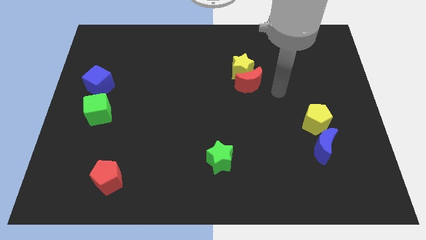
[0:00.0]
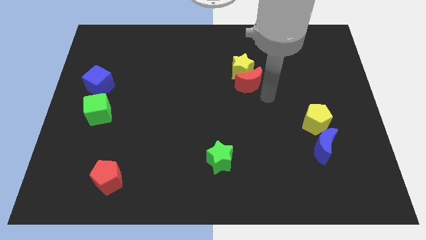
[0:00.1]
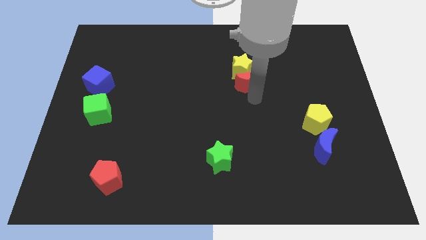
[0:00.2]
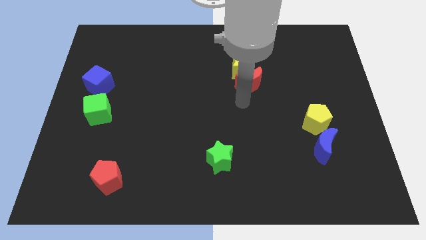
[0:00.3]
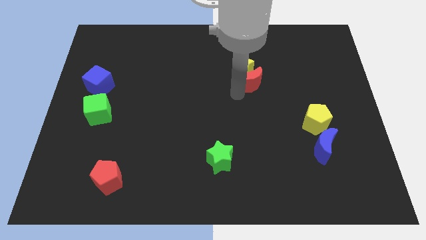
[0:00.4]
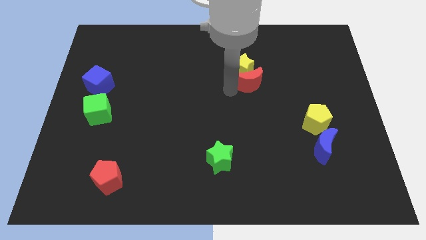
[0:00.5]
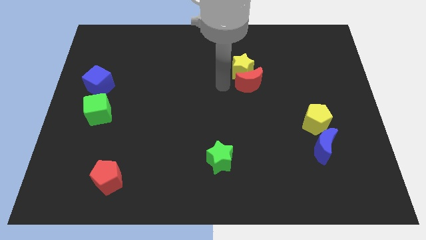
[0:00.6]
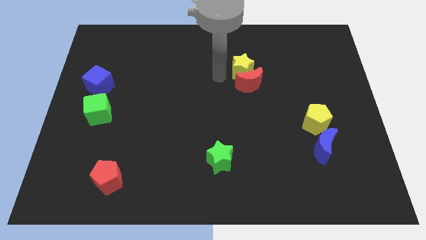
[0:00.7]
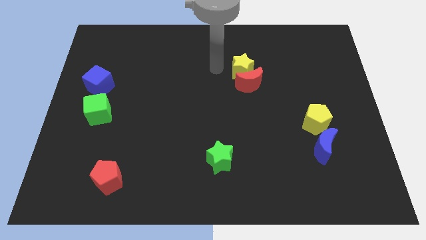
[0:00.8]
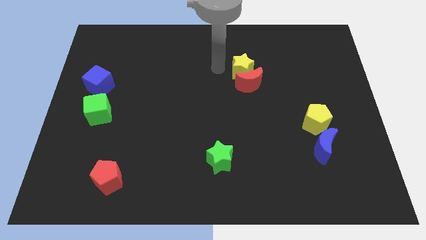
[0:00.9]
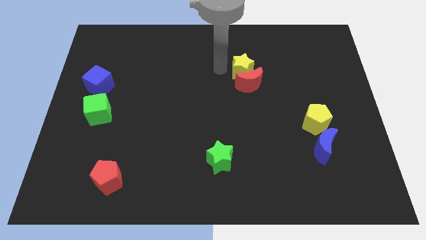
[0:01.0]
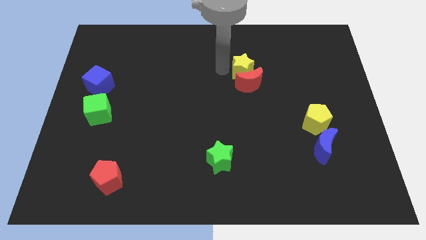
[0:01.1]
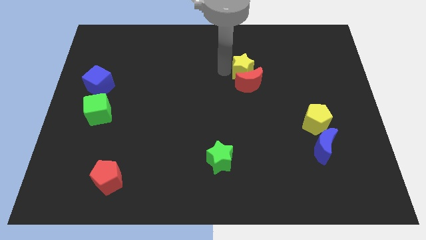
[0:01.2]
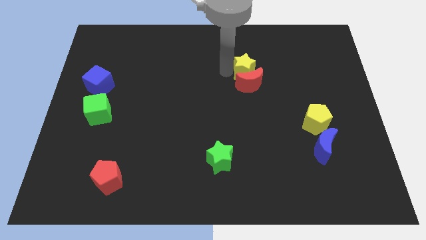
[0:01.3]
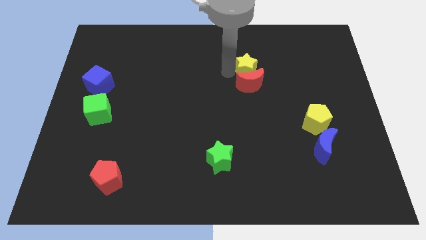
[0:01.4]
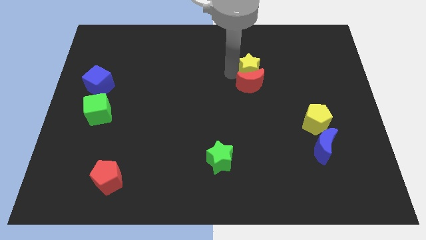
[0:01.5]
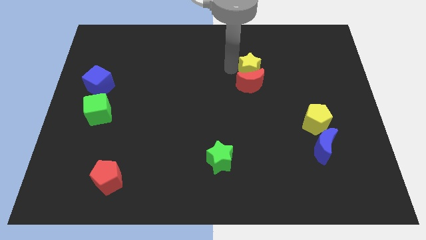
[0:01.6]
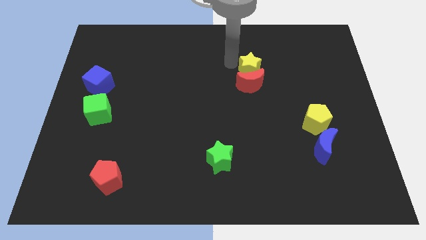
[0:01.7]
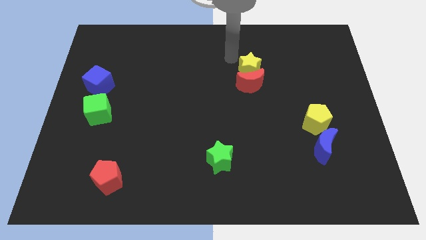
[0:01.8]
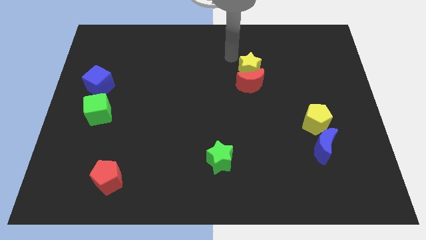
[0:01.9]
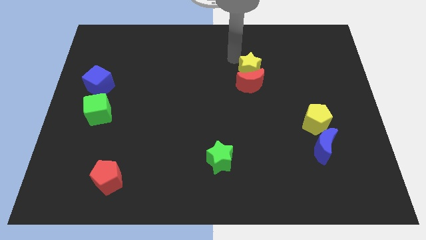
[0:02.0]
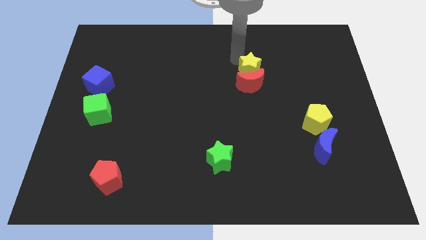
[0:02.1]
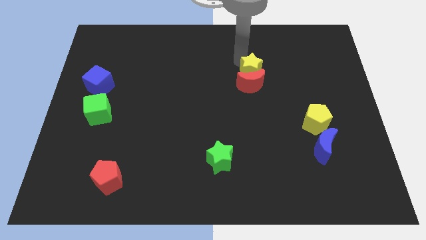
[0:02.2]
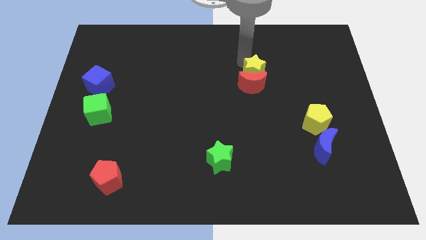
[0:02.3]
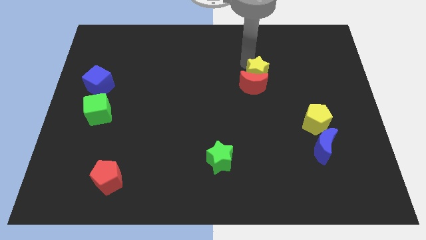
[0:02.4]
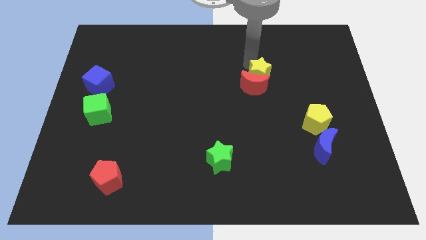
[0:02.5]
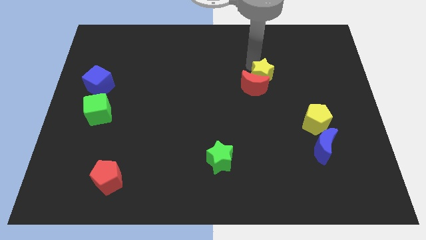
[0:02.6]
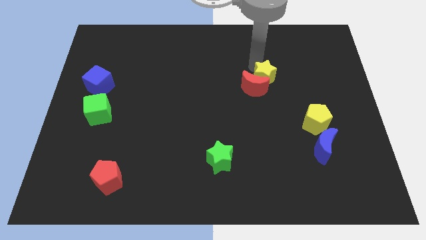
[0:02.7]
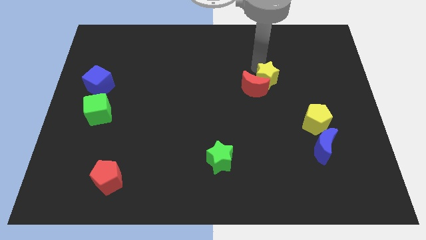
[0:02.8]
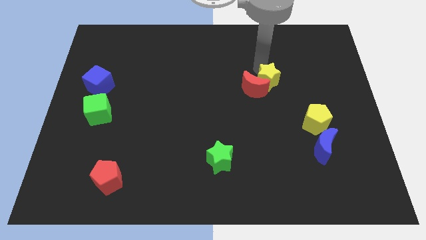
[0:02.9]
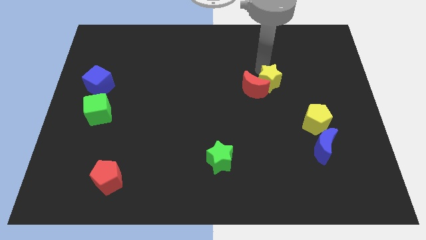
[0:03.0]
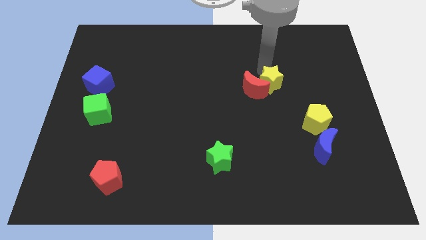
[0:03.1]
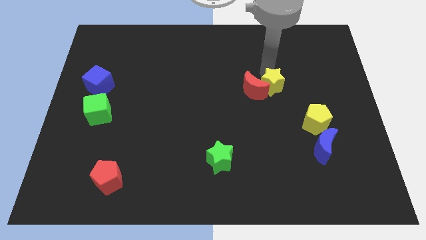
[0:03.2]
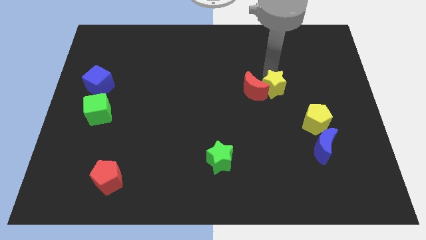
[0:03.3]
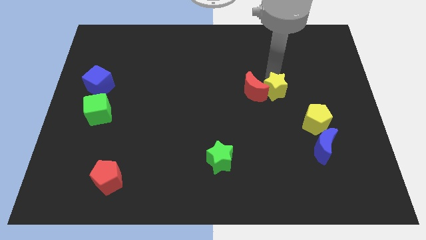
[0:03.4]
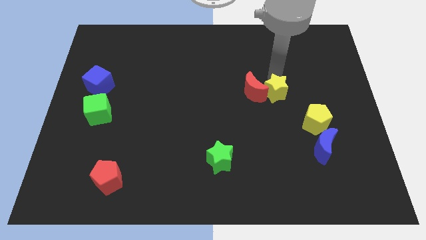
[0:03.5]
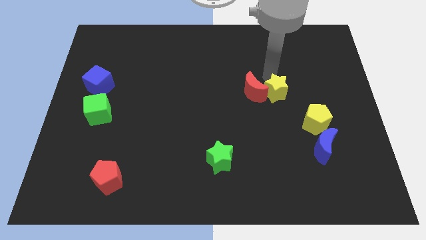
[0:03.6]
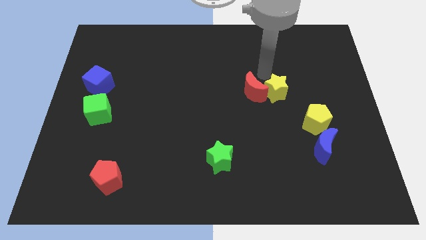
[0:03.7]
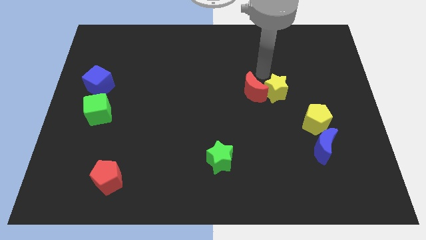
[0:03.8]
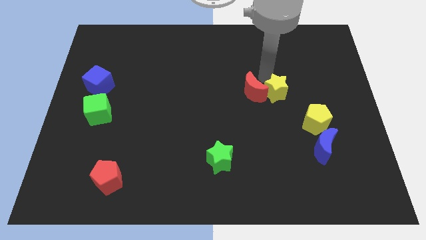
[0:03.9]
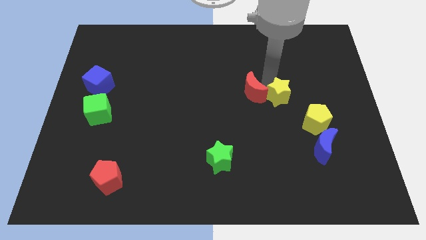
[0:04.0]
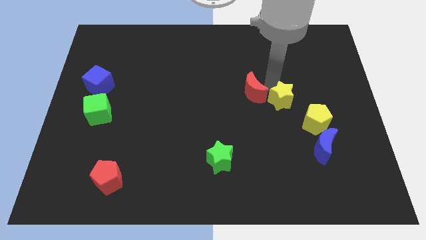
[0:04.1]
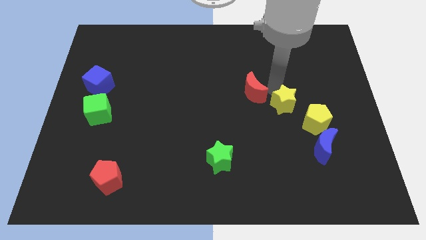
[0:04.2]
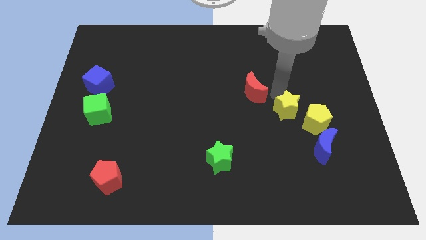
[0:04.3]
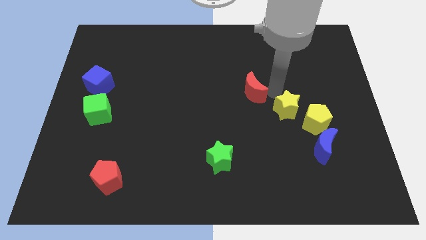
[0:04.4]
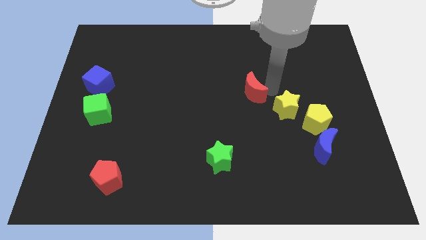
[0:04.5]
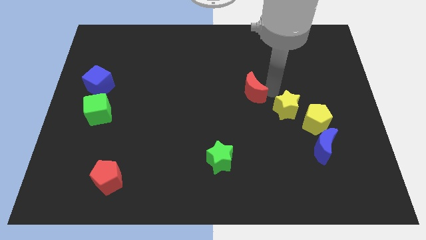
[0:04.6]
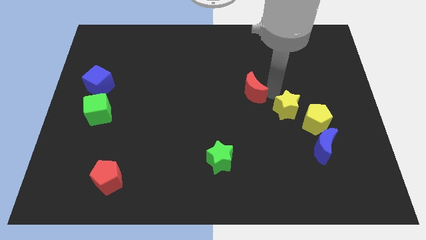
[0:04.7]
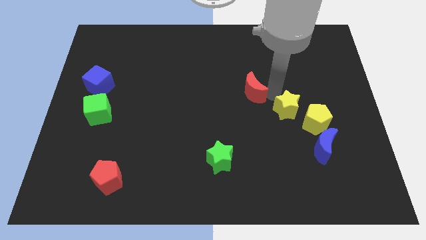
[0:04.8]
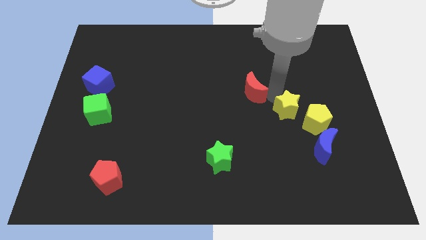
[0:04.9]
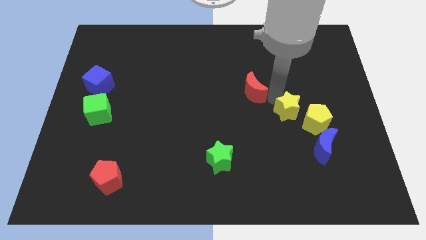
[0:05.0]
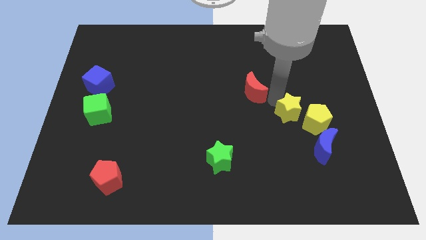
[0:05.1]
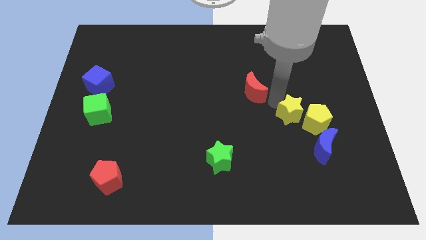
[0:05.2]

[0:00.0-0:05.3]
move the yellow star to the yellow pentagon

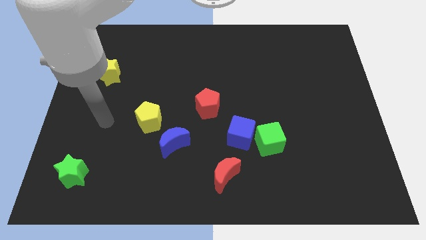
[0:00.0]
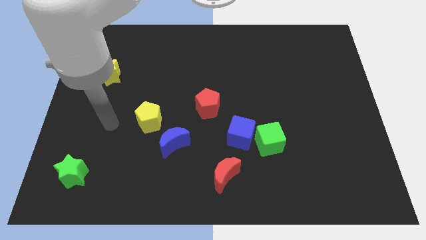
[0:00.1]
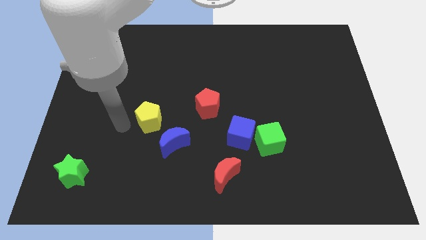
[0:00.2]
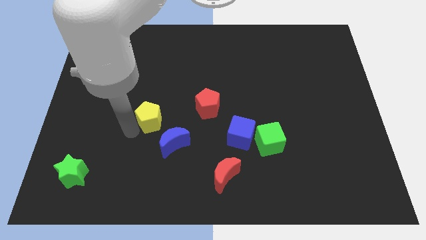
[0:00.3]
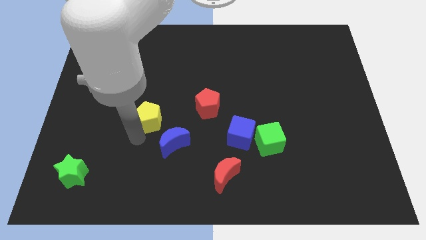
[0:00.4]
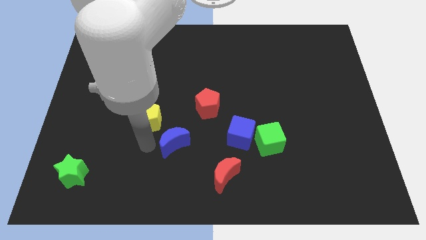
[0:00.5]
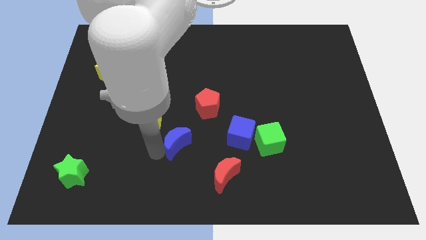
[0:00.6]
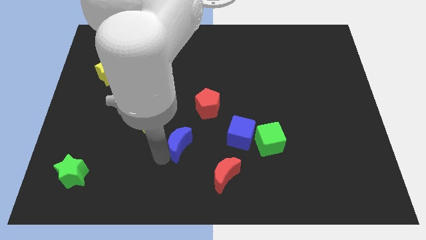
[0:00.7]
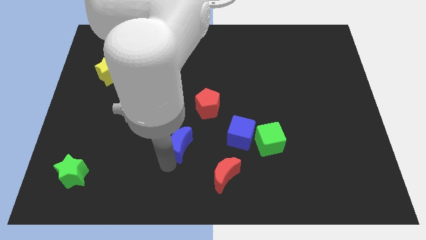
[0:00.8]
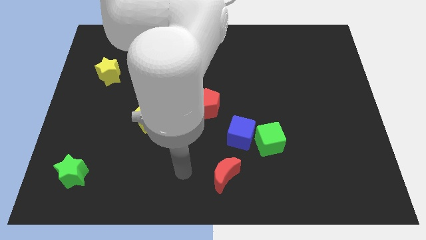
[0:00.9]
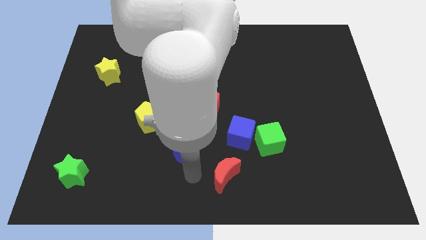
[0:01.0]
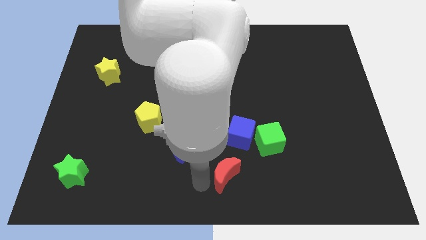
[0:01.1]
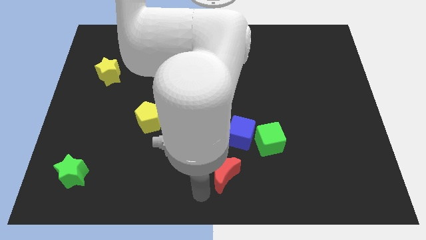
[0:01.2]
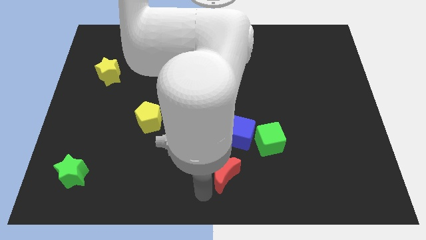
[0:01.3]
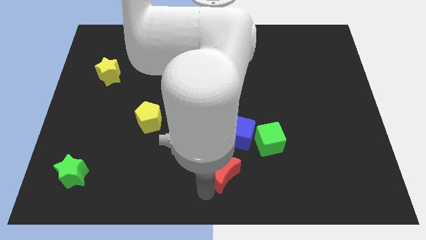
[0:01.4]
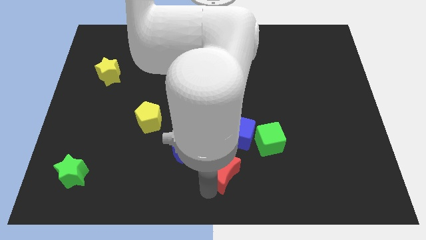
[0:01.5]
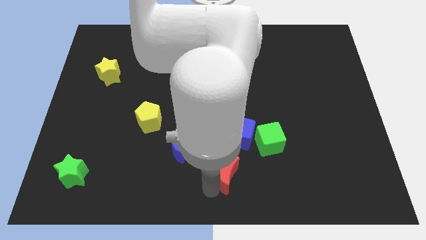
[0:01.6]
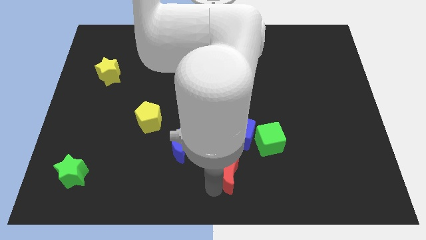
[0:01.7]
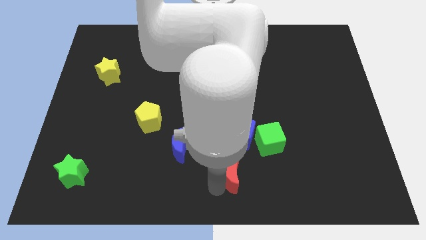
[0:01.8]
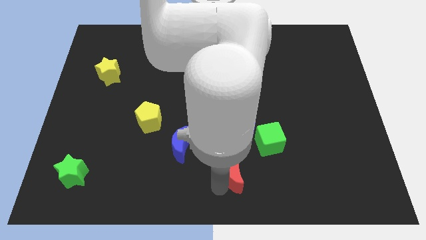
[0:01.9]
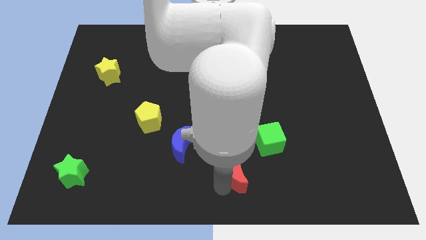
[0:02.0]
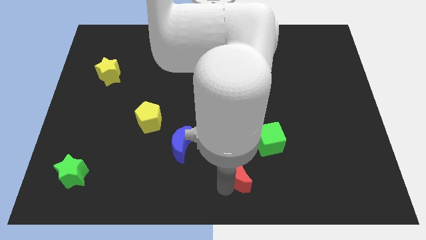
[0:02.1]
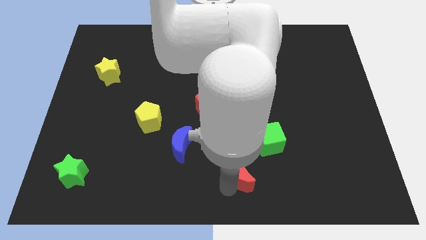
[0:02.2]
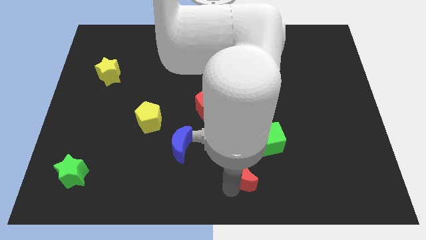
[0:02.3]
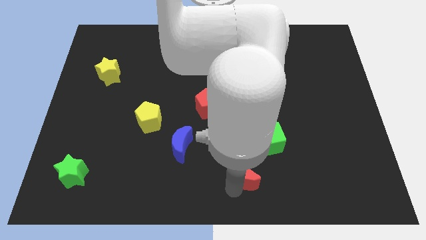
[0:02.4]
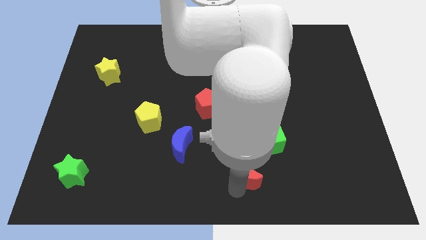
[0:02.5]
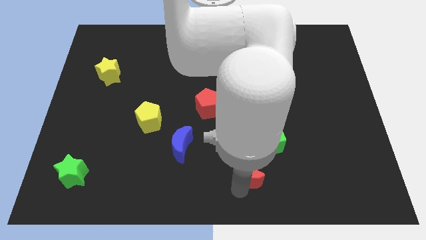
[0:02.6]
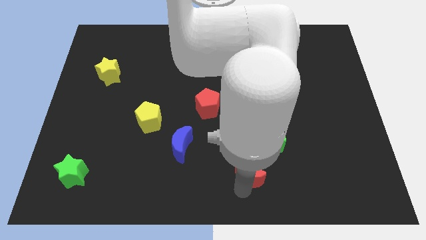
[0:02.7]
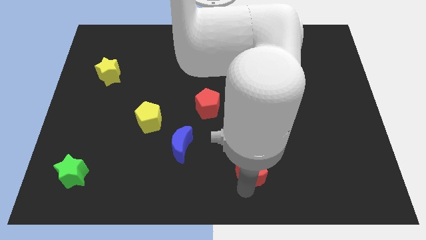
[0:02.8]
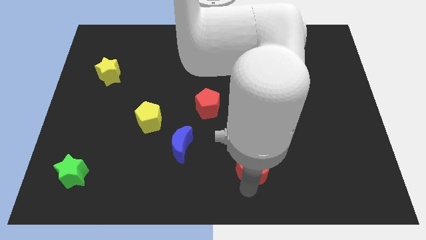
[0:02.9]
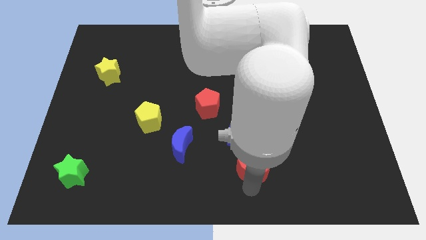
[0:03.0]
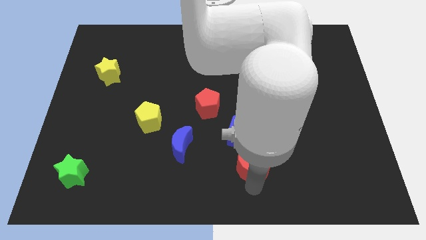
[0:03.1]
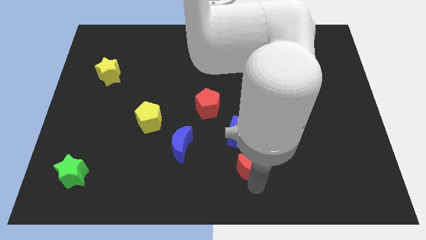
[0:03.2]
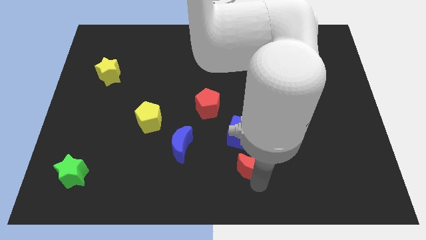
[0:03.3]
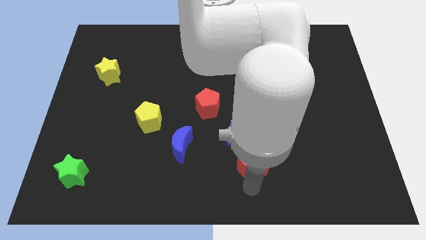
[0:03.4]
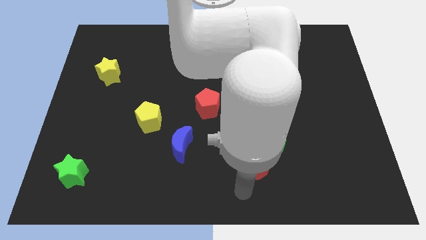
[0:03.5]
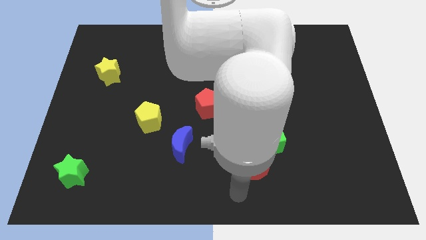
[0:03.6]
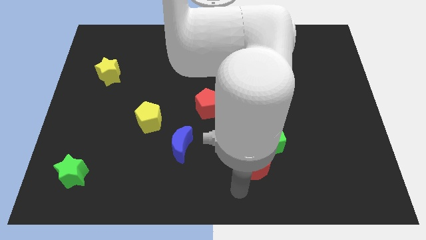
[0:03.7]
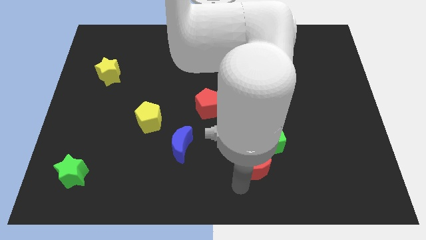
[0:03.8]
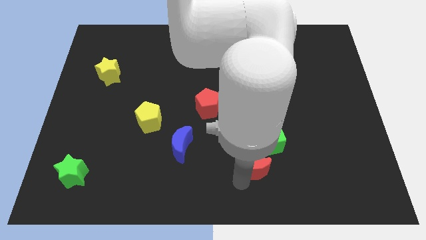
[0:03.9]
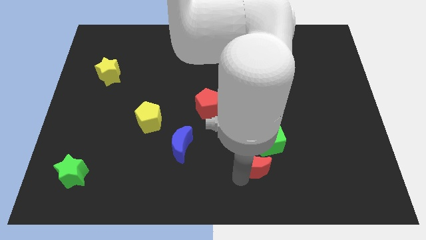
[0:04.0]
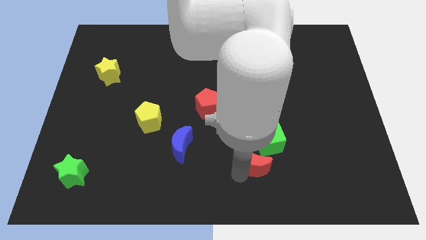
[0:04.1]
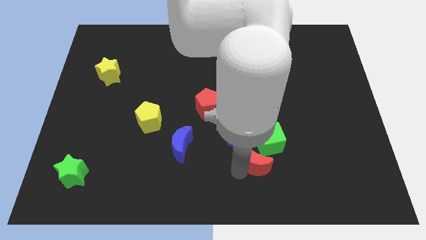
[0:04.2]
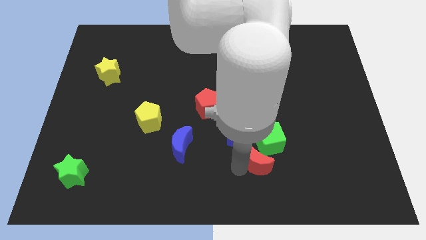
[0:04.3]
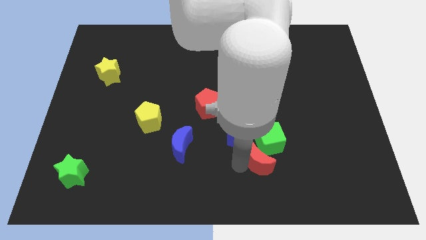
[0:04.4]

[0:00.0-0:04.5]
slide the red moon to the green cube
